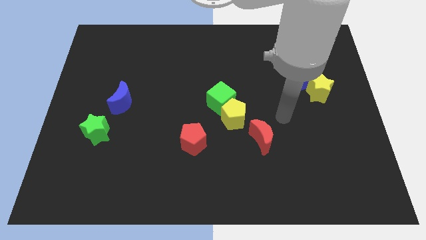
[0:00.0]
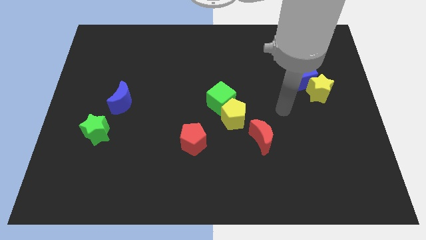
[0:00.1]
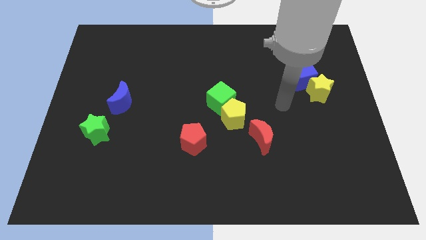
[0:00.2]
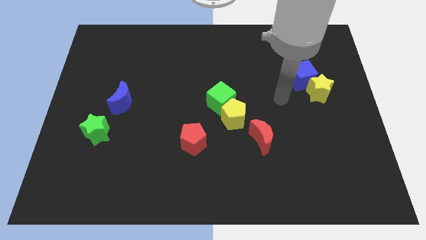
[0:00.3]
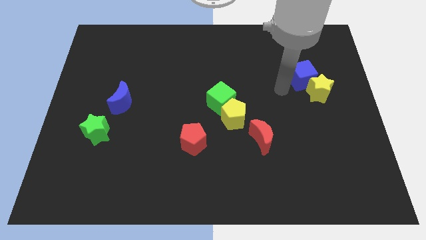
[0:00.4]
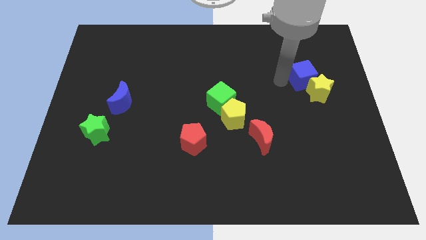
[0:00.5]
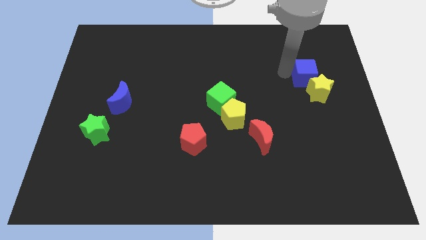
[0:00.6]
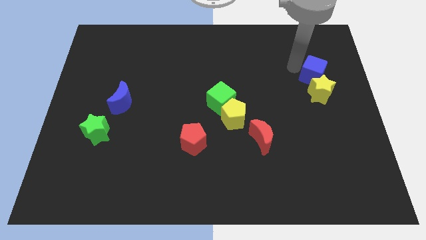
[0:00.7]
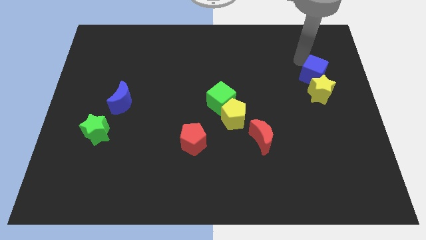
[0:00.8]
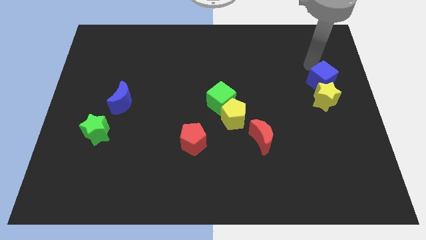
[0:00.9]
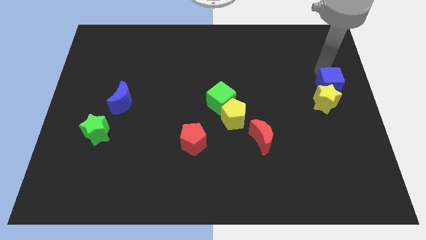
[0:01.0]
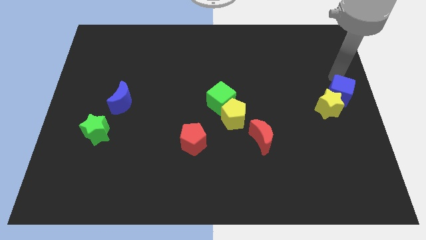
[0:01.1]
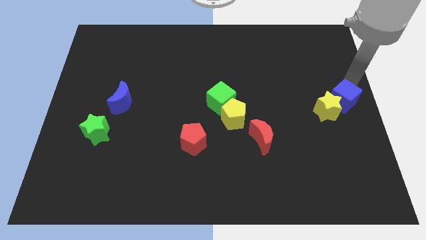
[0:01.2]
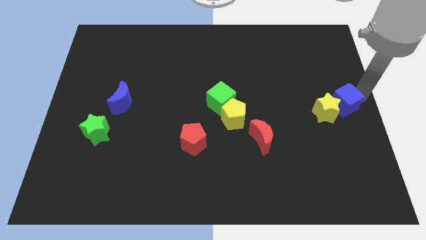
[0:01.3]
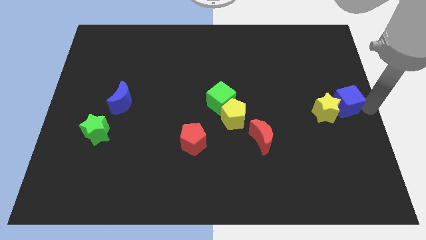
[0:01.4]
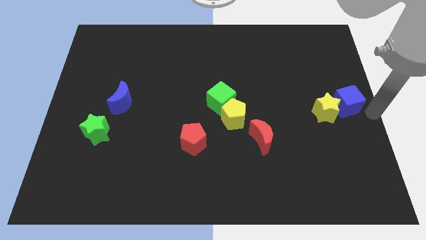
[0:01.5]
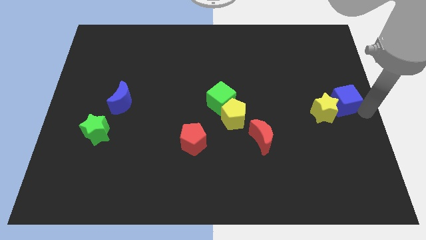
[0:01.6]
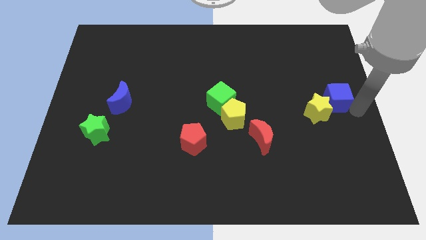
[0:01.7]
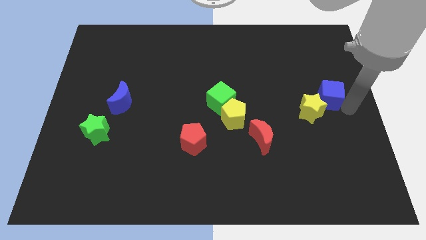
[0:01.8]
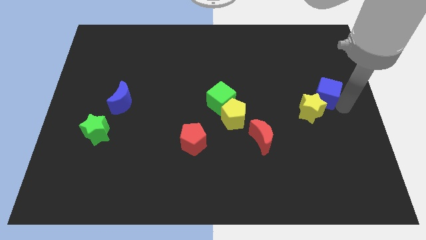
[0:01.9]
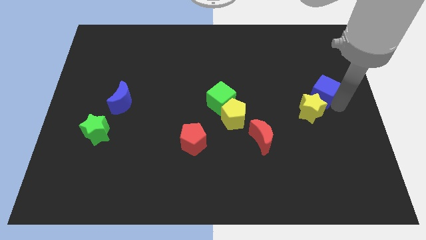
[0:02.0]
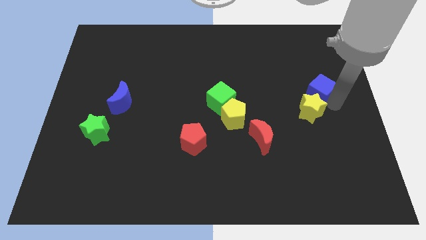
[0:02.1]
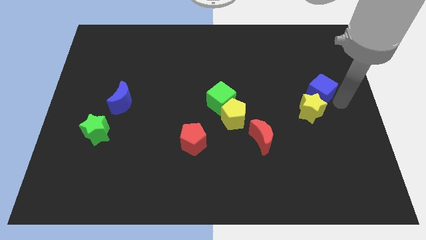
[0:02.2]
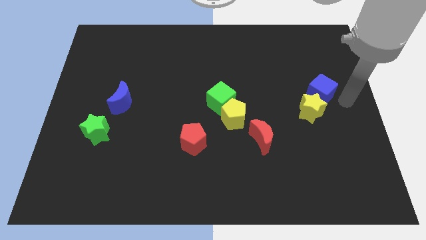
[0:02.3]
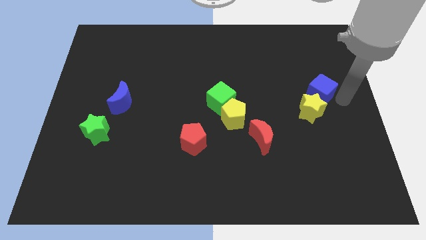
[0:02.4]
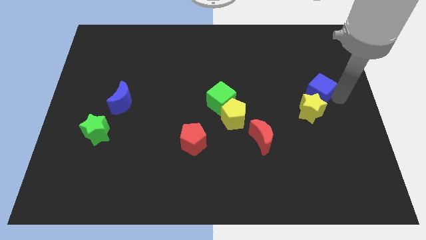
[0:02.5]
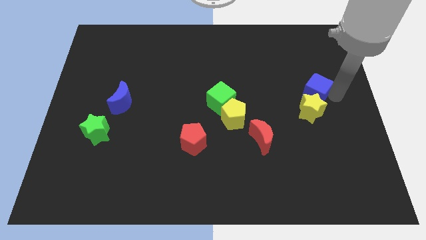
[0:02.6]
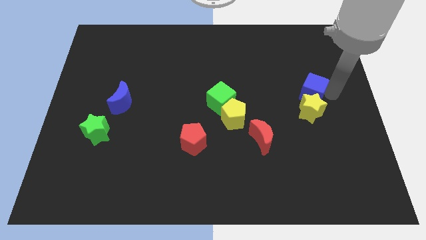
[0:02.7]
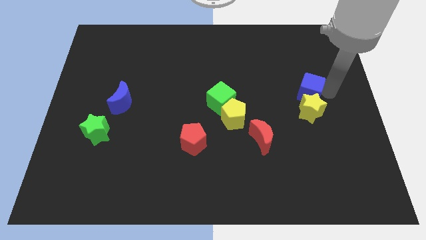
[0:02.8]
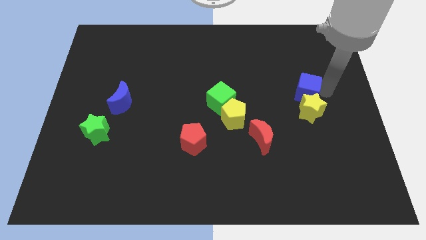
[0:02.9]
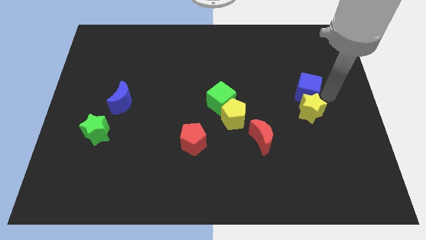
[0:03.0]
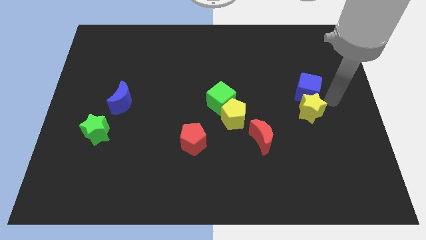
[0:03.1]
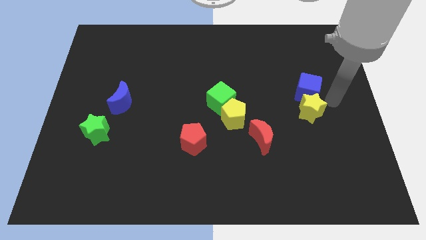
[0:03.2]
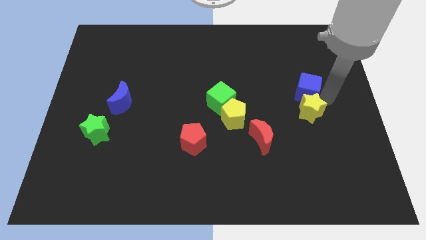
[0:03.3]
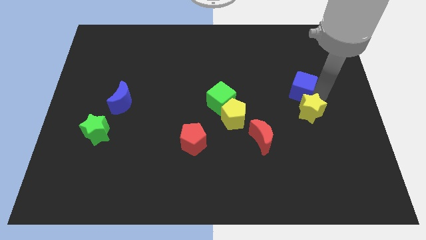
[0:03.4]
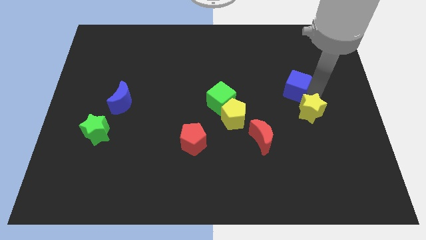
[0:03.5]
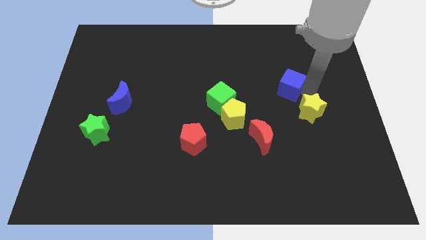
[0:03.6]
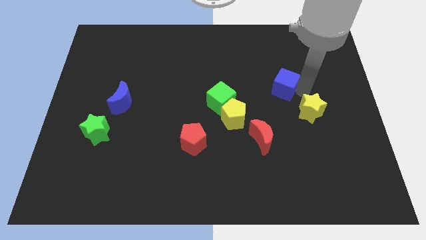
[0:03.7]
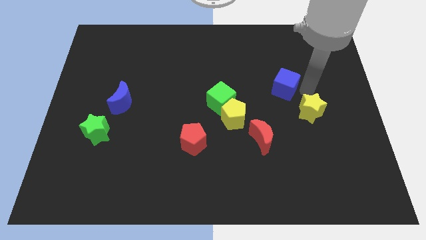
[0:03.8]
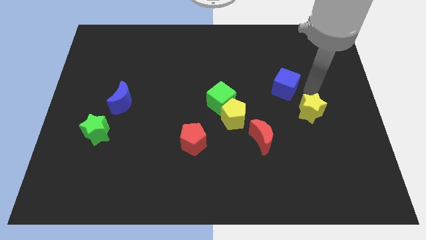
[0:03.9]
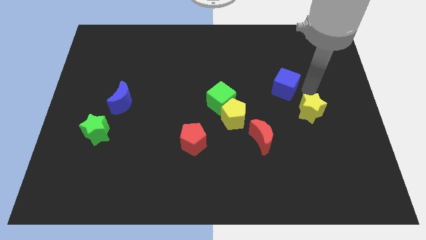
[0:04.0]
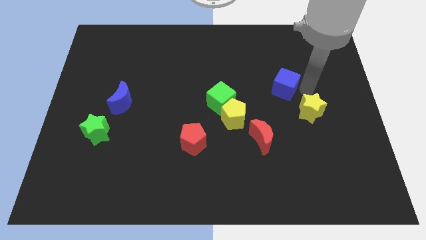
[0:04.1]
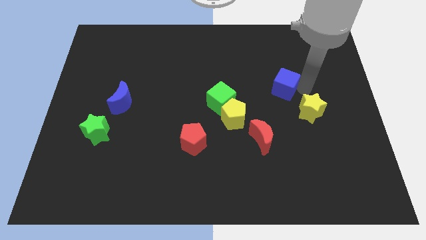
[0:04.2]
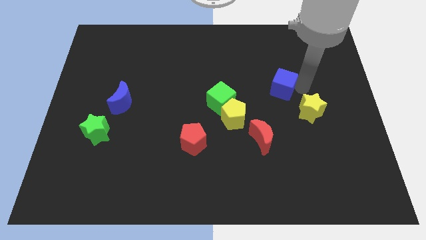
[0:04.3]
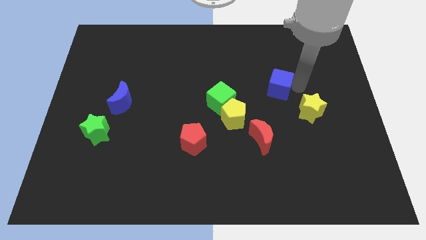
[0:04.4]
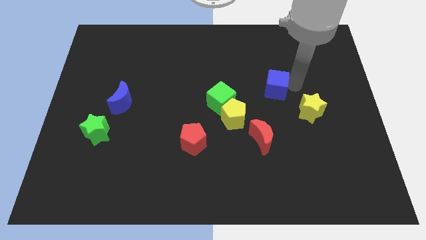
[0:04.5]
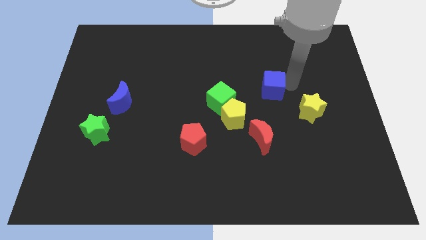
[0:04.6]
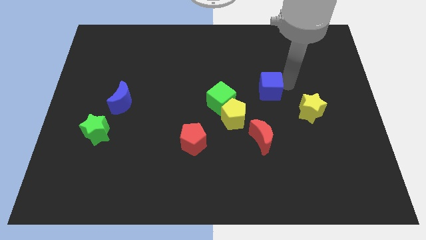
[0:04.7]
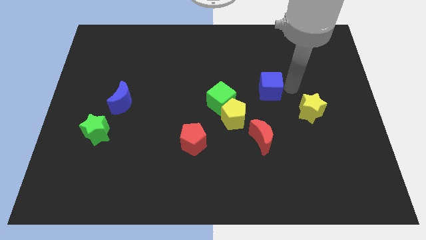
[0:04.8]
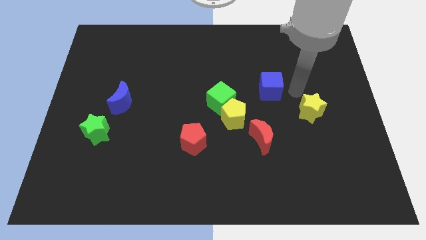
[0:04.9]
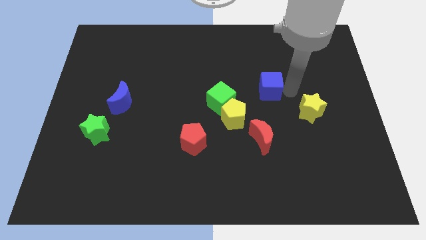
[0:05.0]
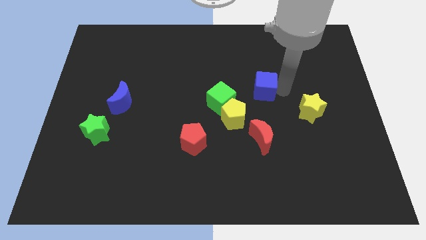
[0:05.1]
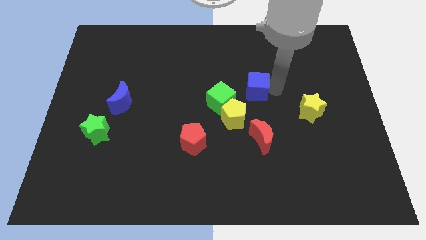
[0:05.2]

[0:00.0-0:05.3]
put the blue cube diagonally up and to the right of the green cube
